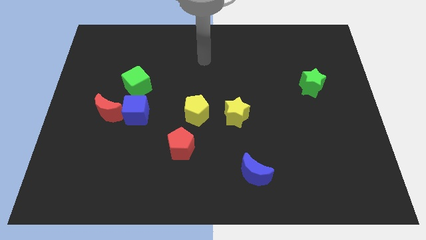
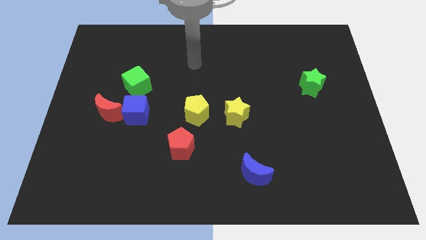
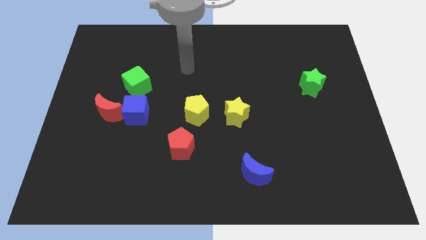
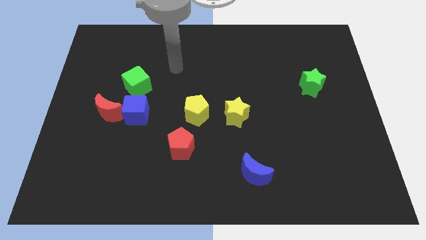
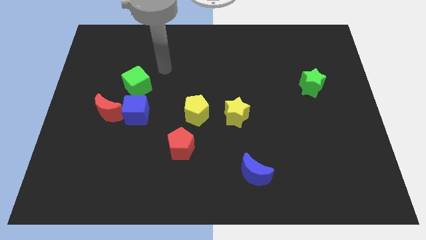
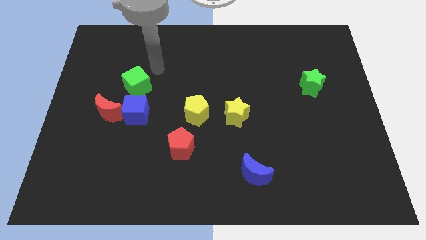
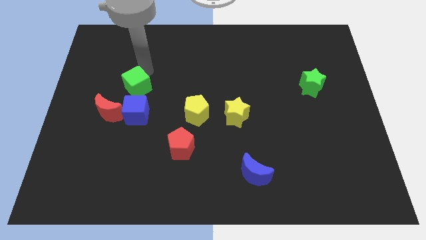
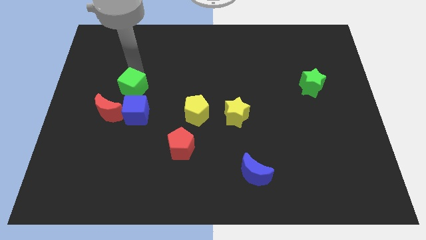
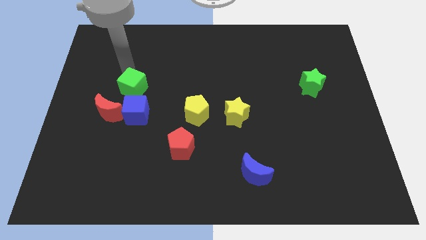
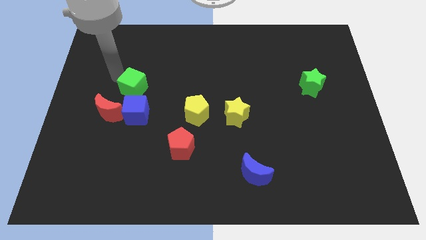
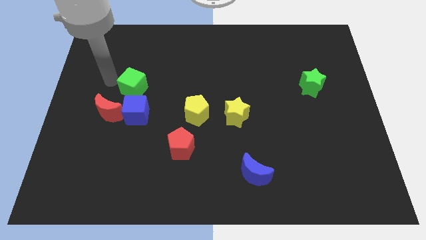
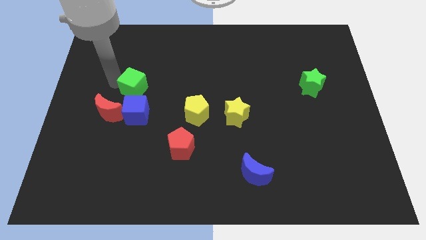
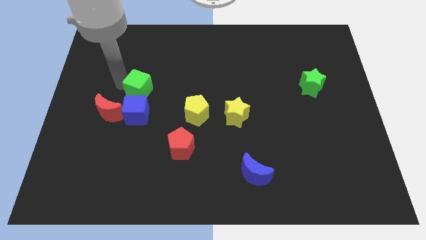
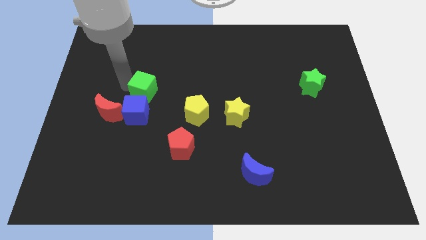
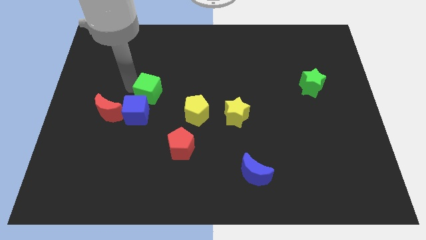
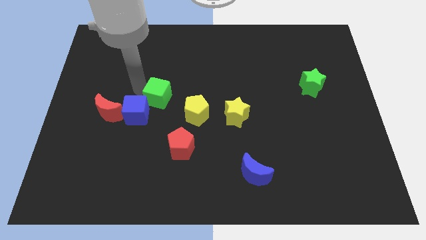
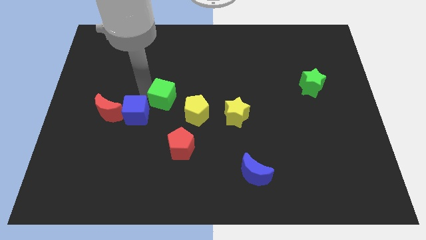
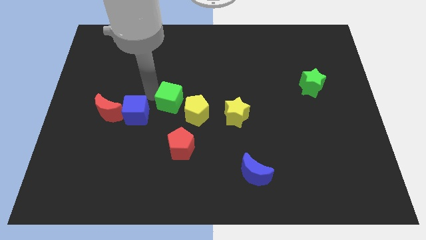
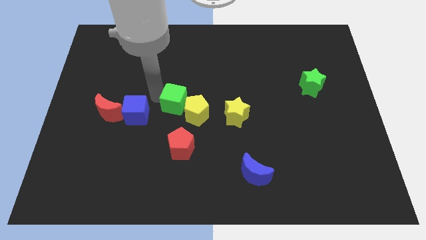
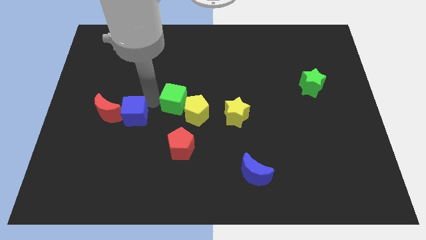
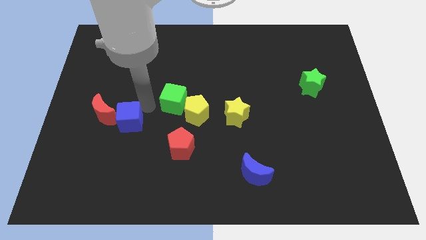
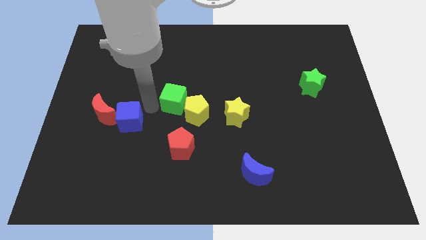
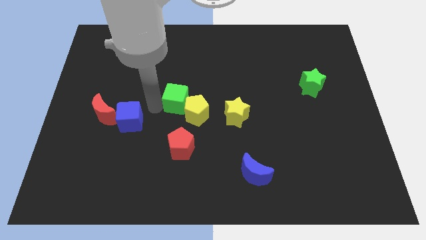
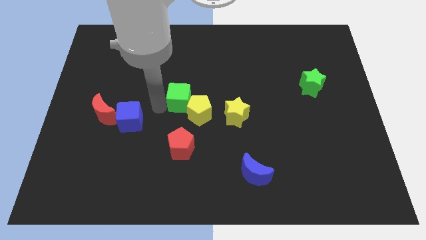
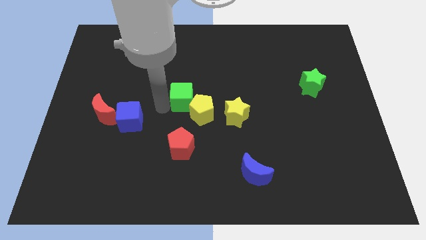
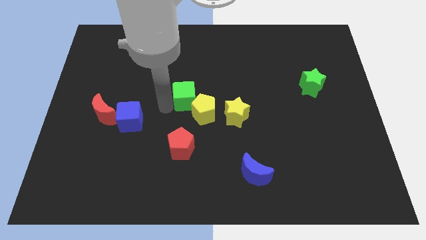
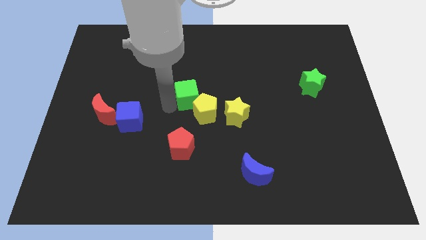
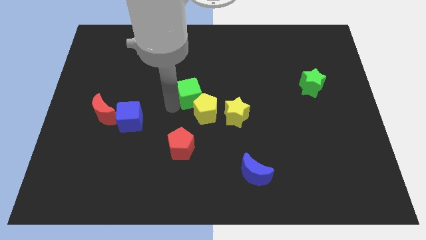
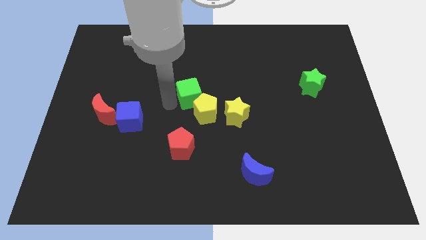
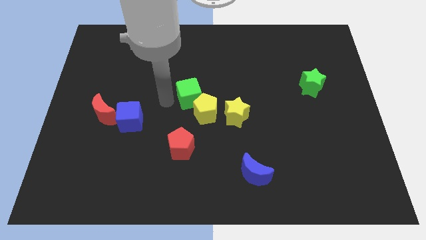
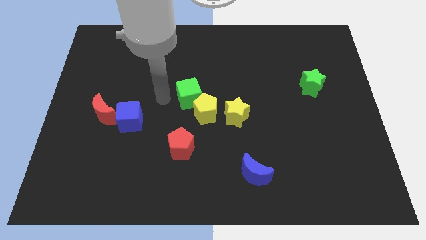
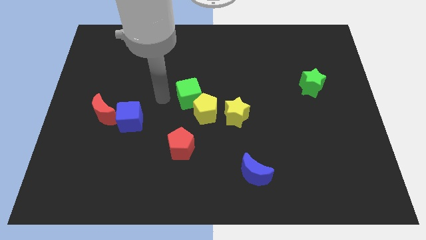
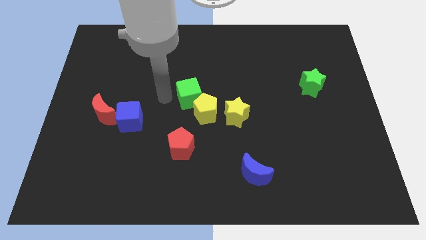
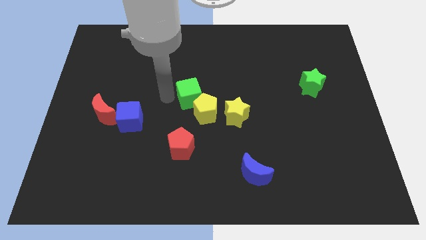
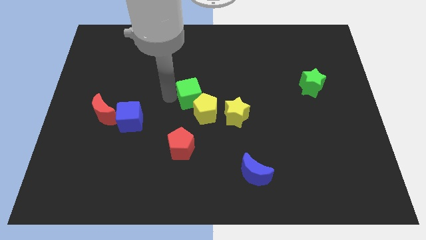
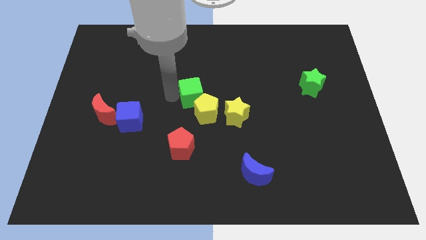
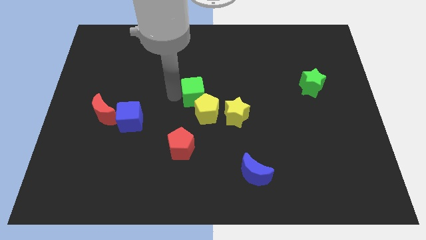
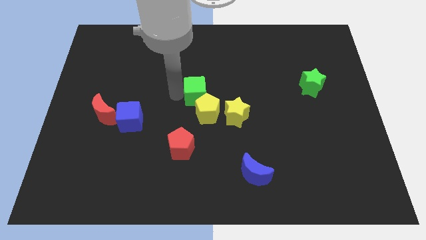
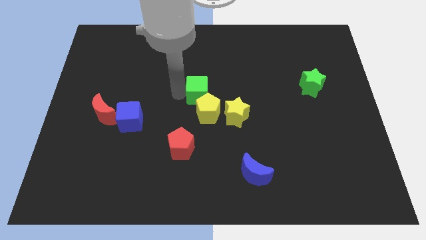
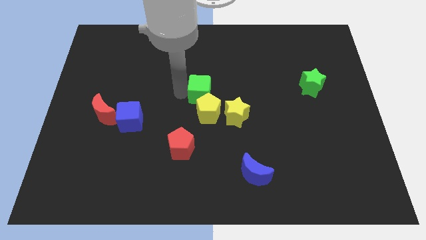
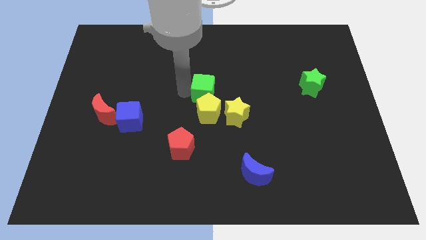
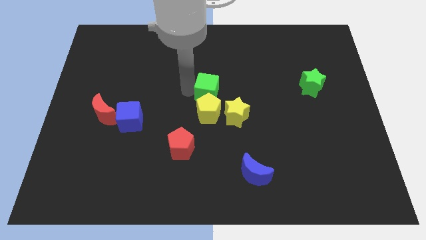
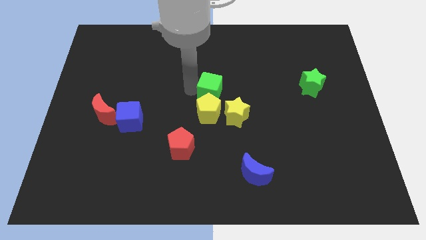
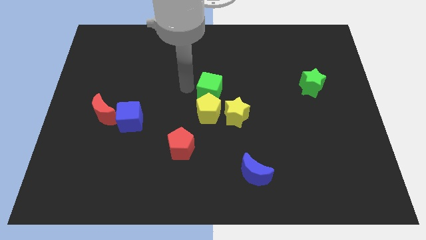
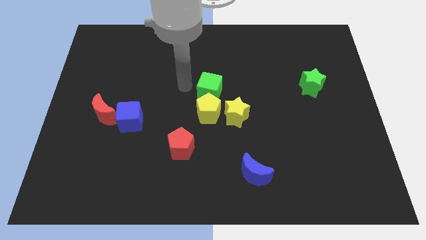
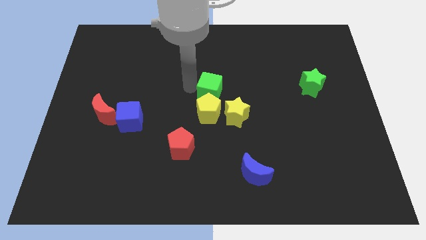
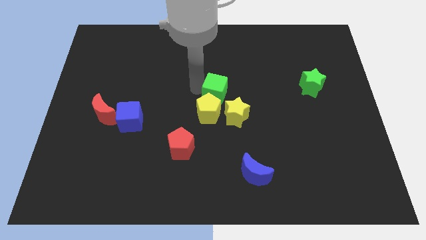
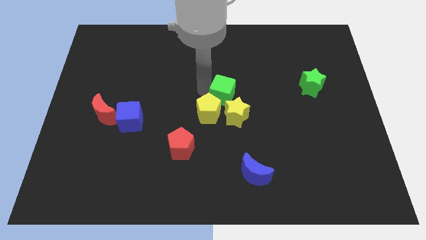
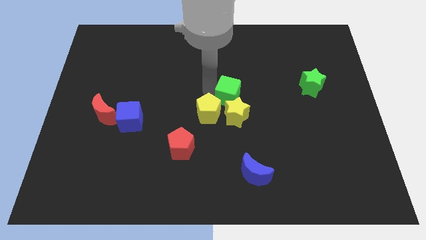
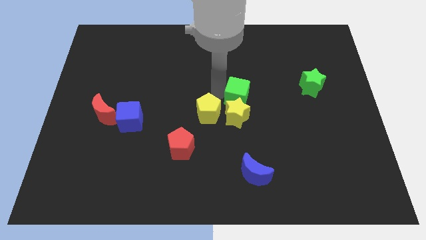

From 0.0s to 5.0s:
move the green cube just right of the yellow pentagon

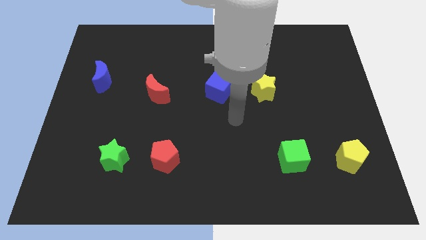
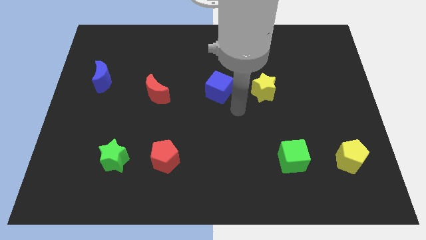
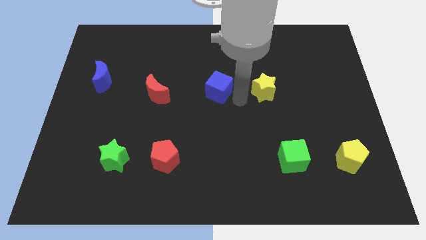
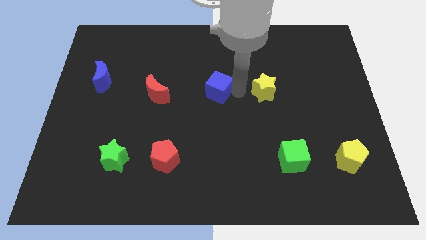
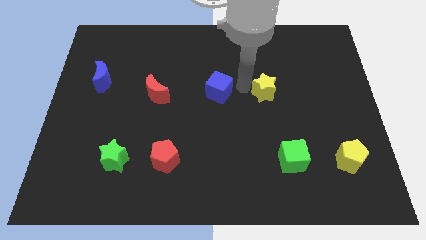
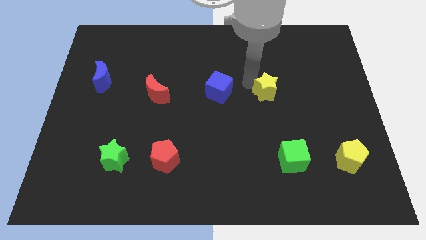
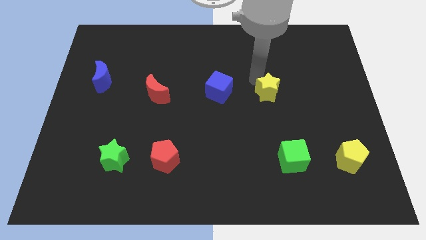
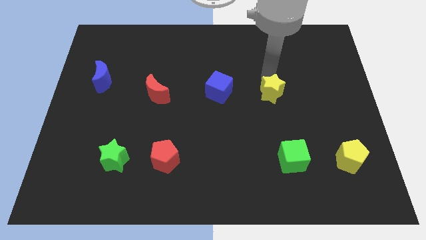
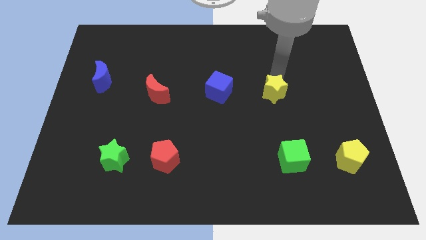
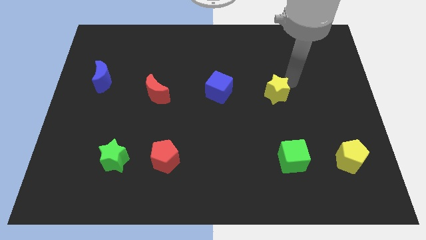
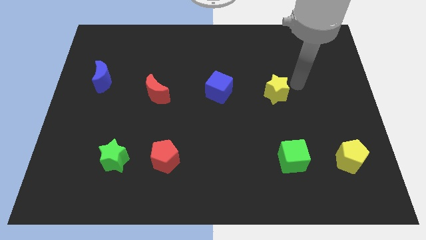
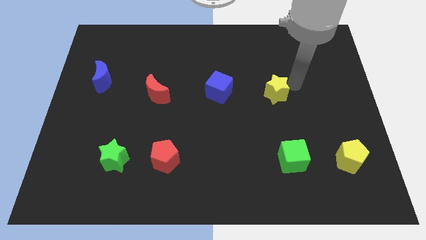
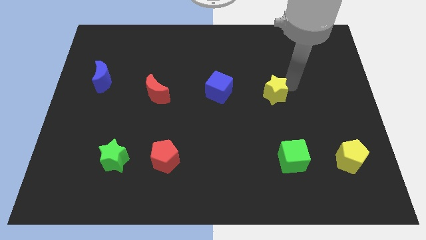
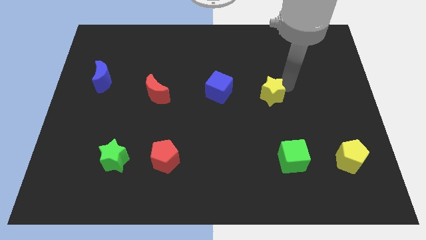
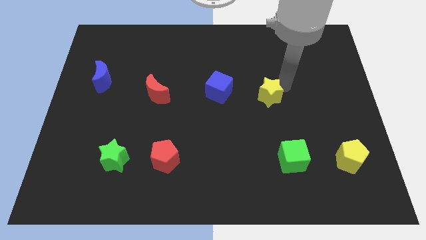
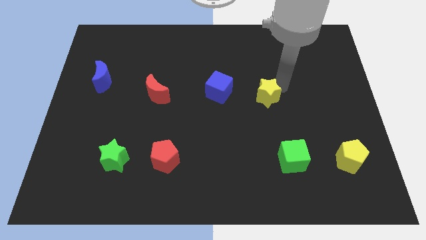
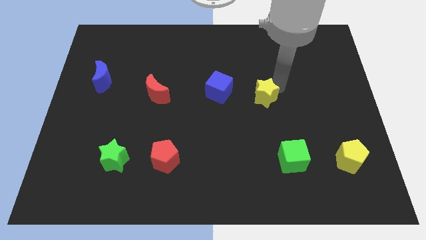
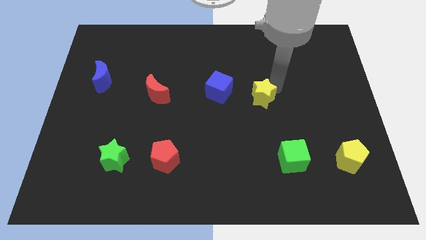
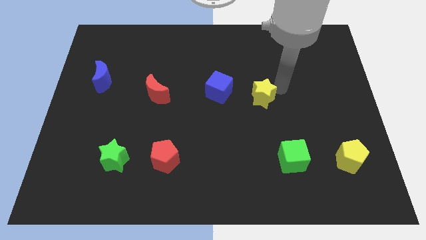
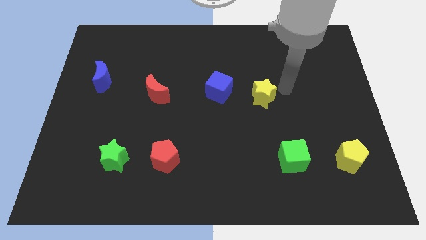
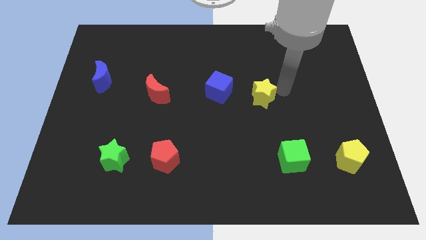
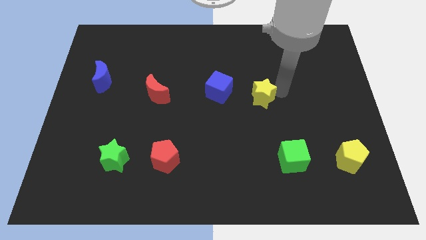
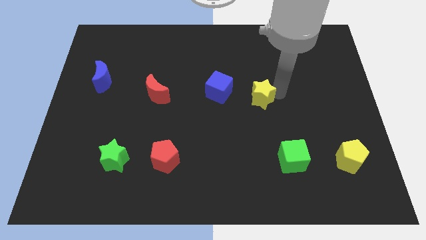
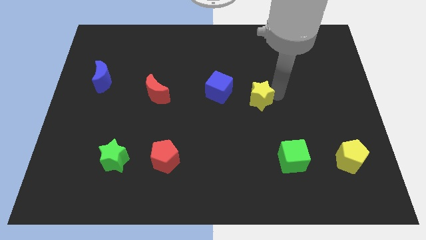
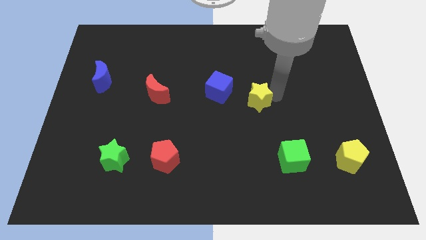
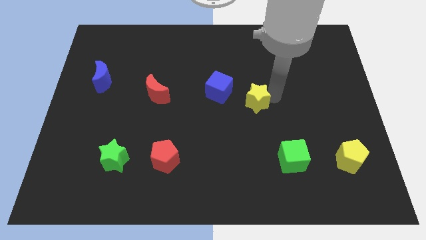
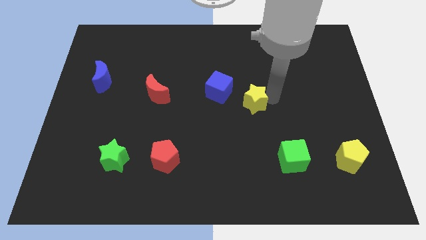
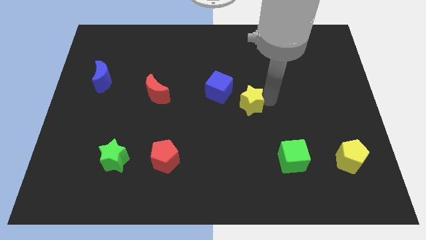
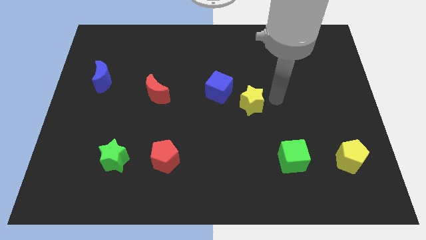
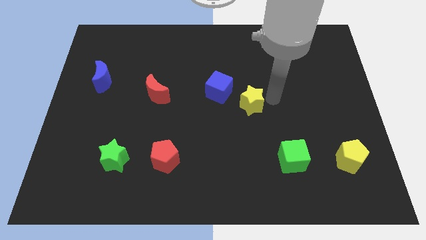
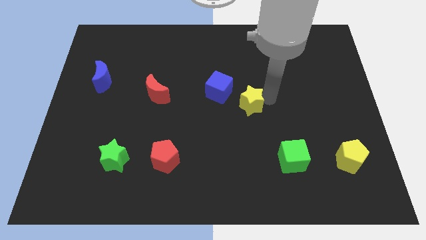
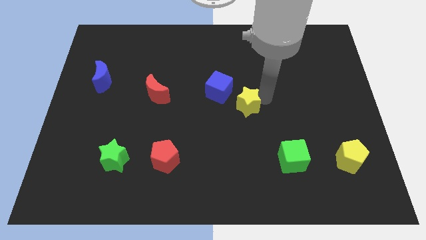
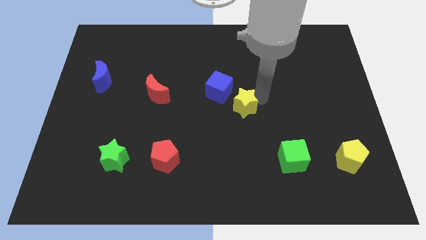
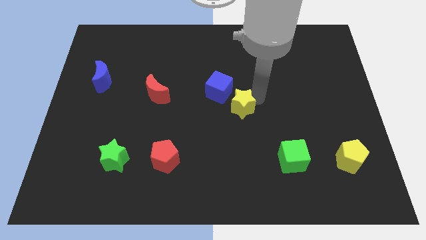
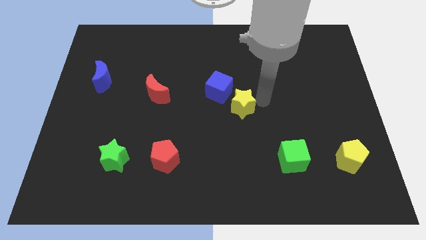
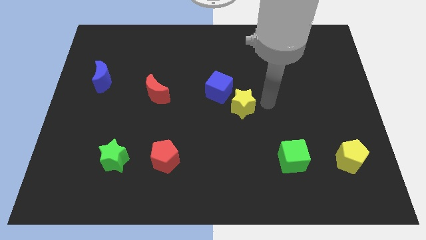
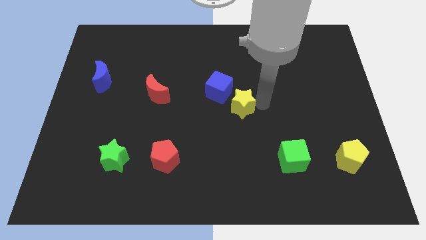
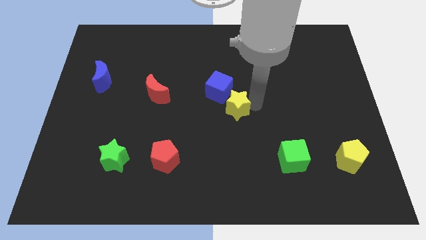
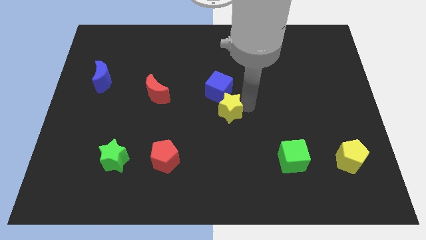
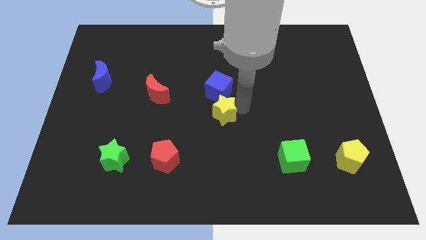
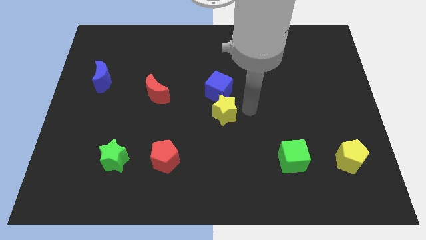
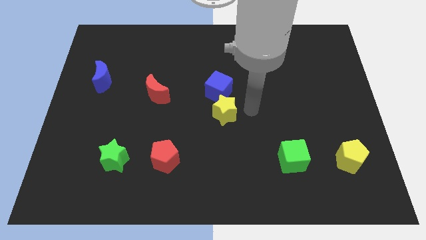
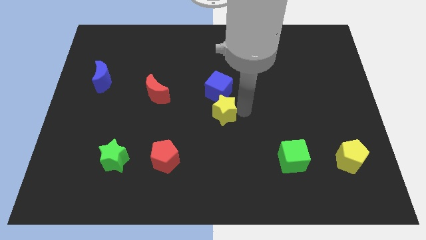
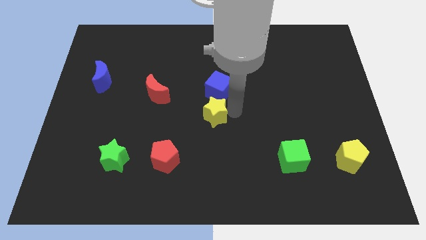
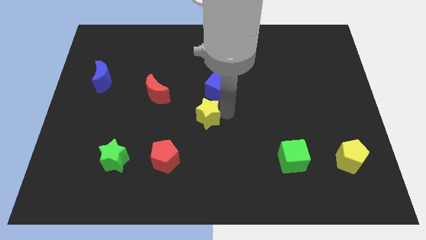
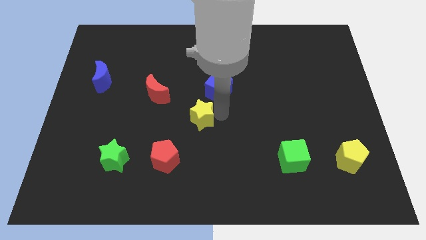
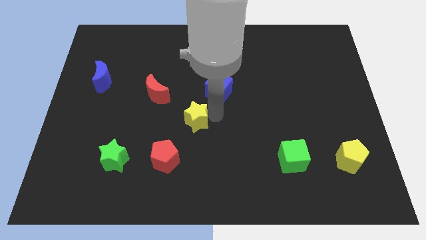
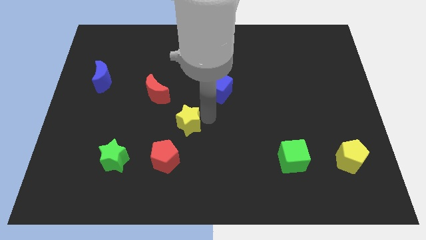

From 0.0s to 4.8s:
push the yellow star to the top side of the red pentagon
